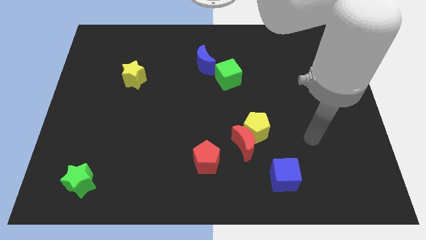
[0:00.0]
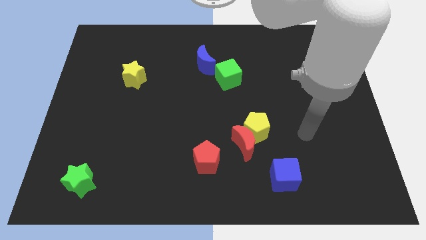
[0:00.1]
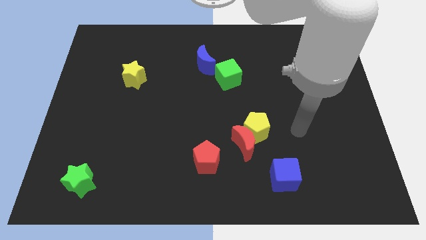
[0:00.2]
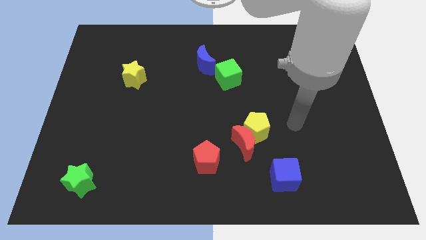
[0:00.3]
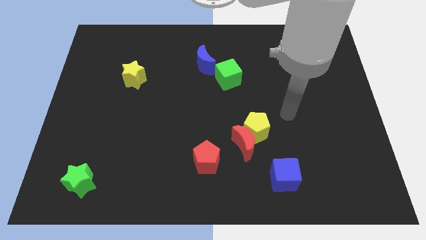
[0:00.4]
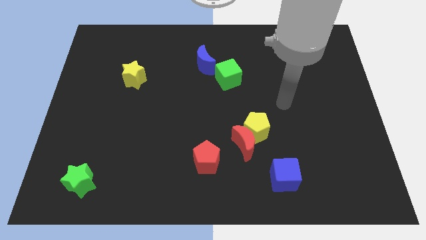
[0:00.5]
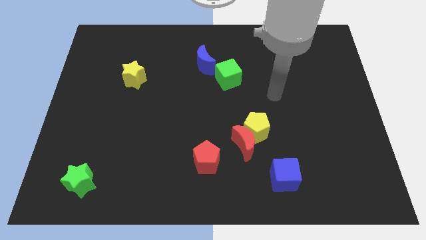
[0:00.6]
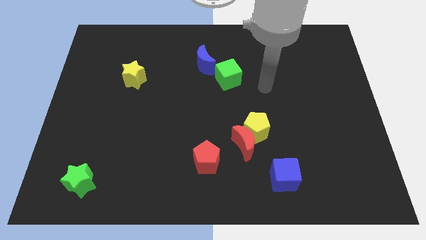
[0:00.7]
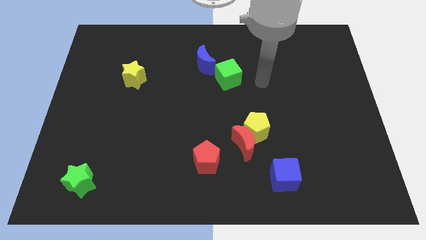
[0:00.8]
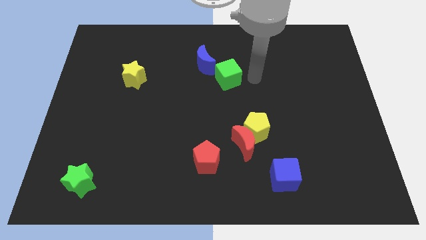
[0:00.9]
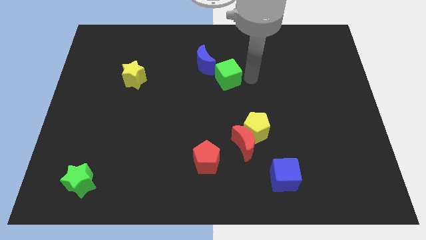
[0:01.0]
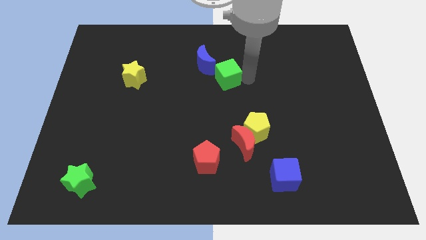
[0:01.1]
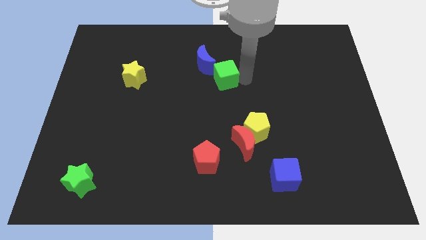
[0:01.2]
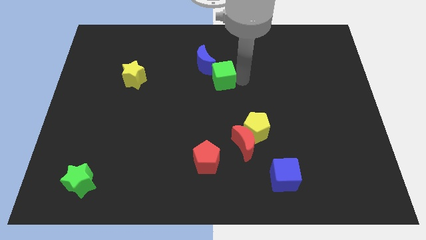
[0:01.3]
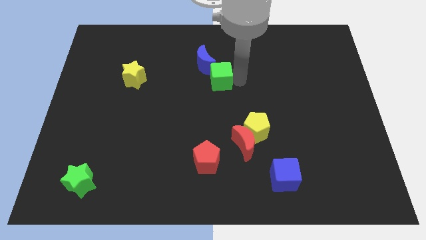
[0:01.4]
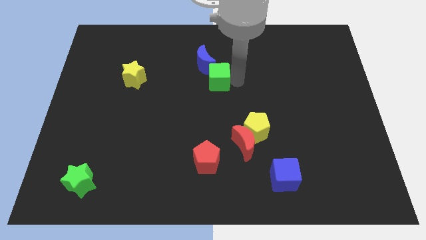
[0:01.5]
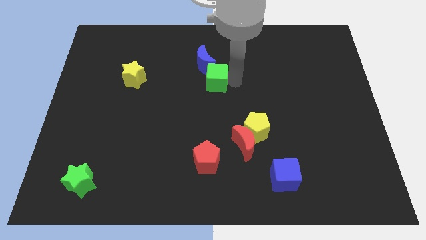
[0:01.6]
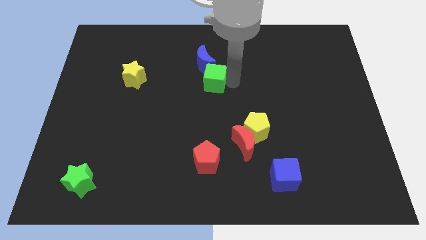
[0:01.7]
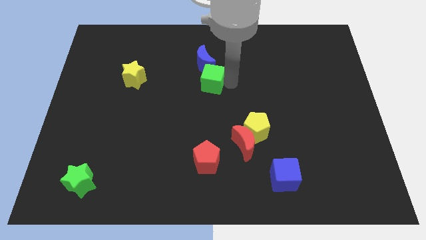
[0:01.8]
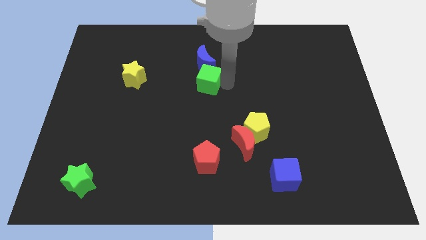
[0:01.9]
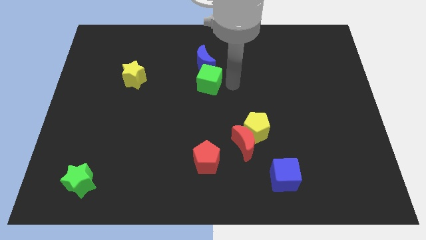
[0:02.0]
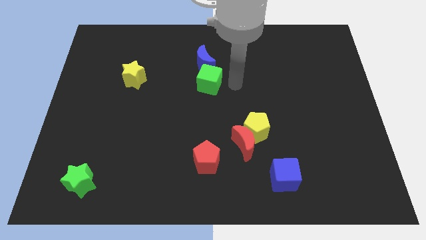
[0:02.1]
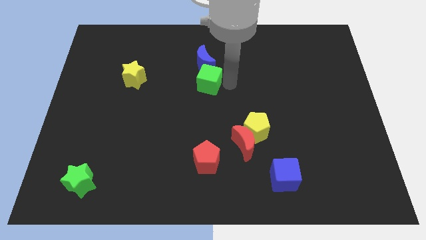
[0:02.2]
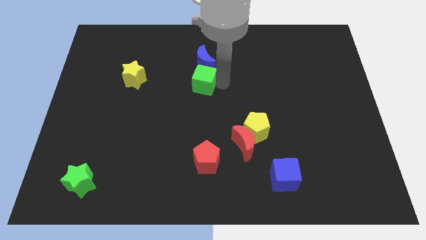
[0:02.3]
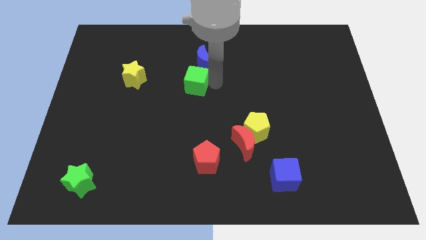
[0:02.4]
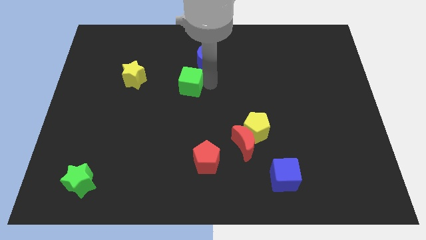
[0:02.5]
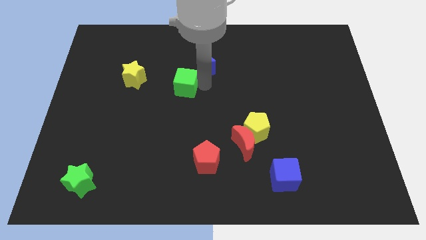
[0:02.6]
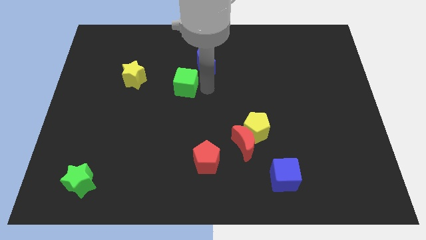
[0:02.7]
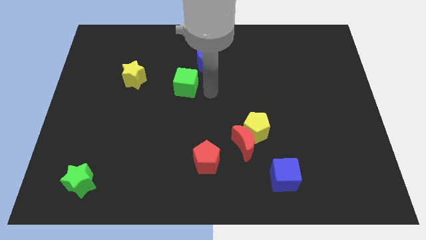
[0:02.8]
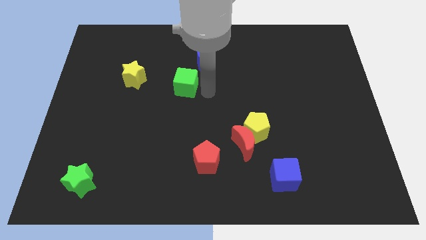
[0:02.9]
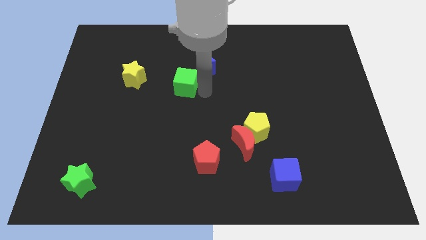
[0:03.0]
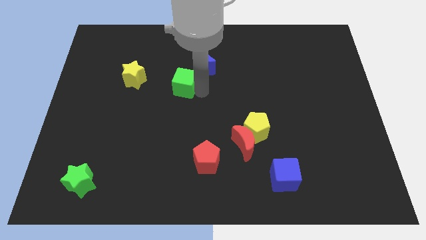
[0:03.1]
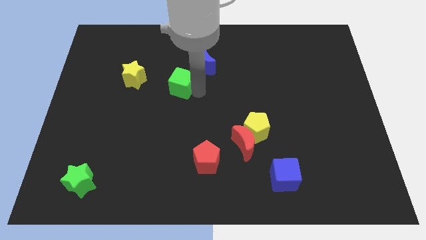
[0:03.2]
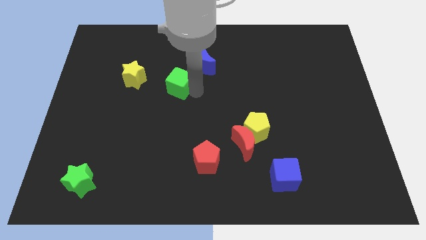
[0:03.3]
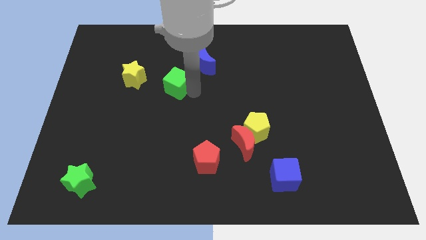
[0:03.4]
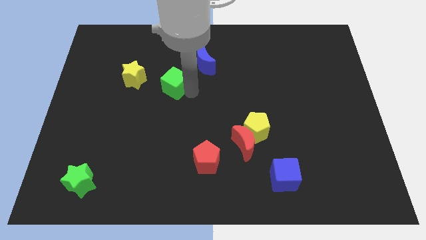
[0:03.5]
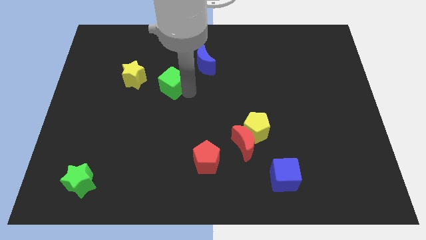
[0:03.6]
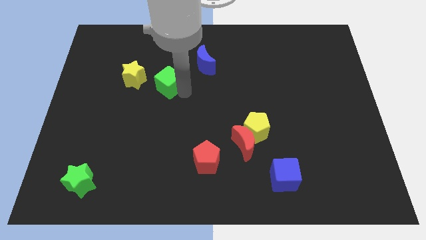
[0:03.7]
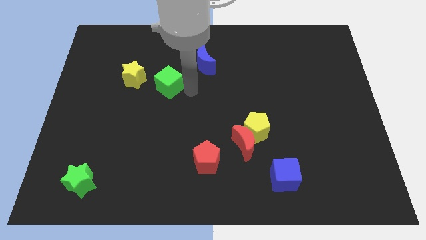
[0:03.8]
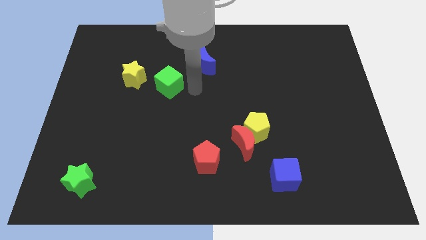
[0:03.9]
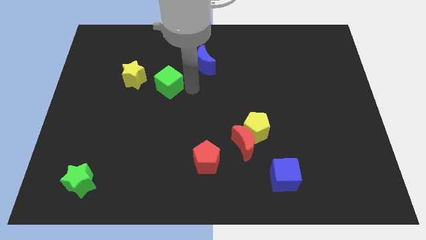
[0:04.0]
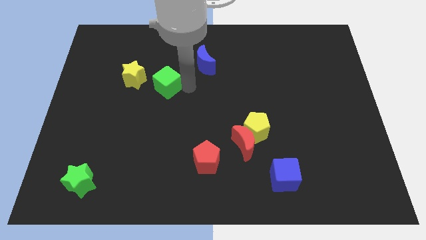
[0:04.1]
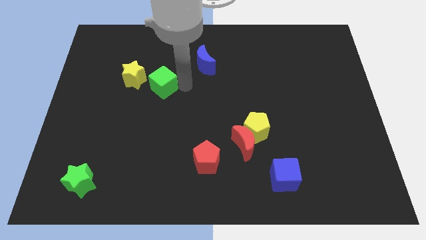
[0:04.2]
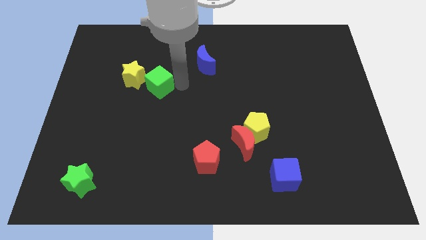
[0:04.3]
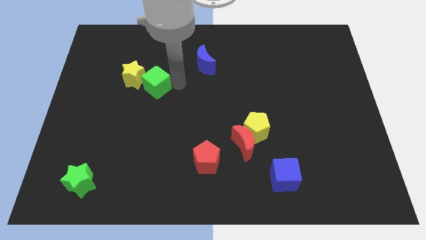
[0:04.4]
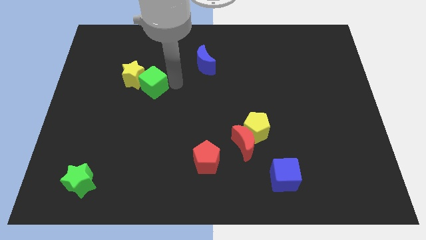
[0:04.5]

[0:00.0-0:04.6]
push the green cube towards the yellow star

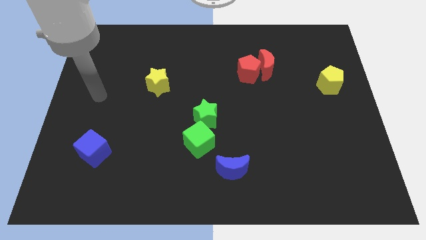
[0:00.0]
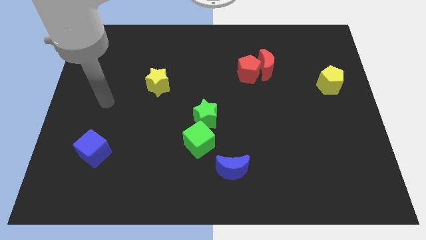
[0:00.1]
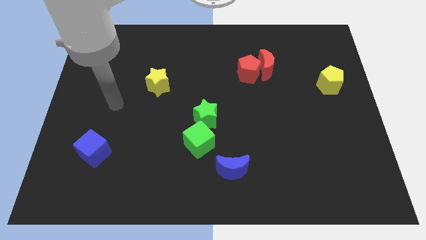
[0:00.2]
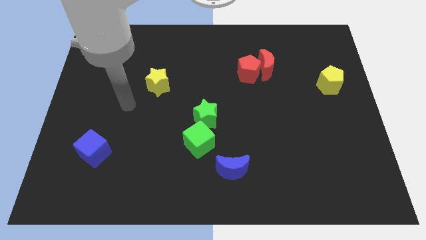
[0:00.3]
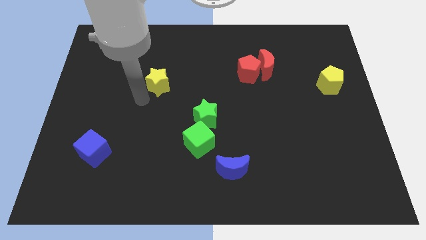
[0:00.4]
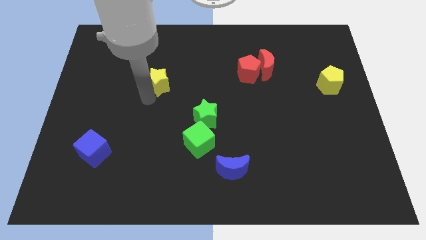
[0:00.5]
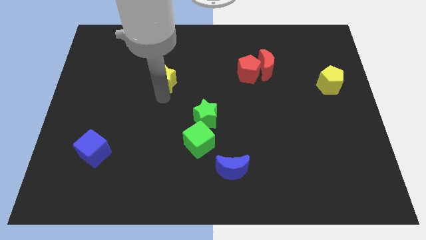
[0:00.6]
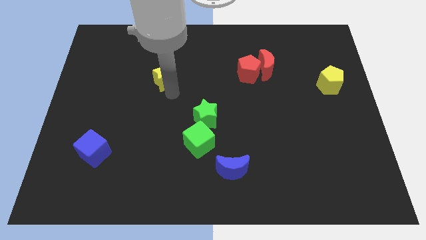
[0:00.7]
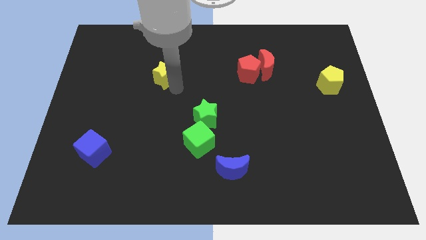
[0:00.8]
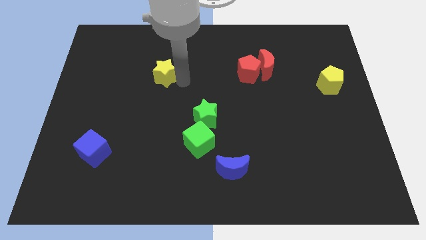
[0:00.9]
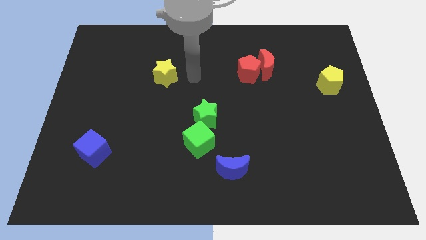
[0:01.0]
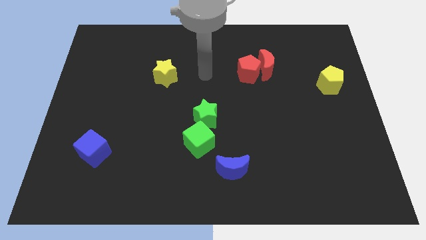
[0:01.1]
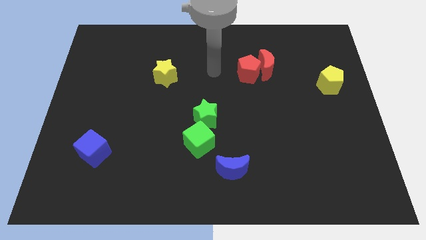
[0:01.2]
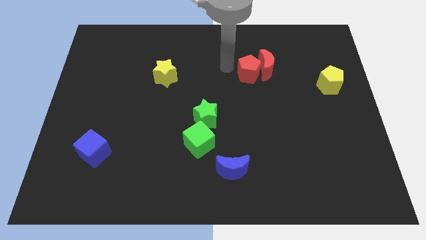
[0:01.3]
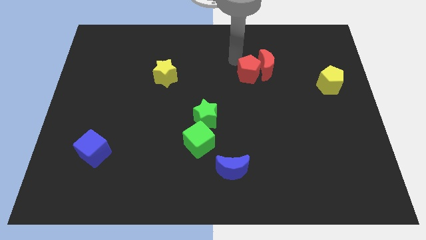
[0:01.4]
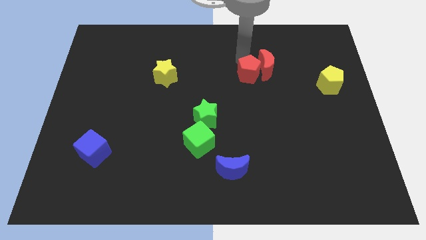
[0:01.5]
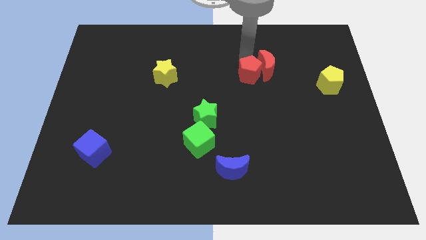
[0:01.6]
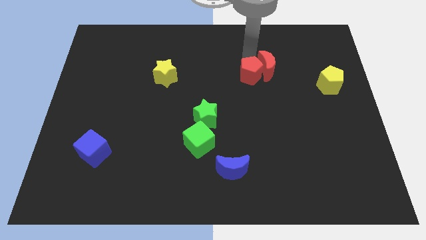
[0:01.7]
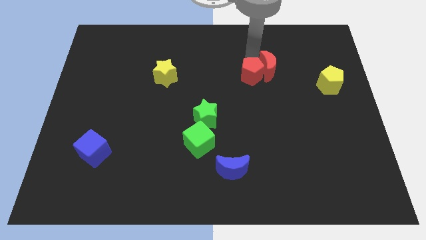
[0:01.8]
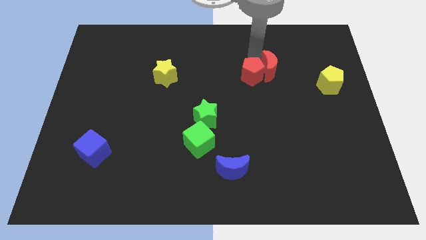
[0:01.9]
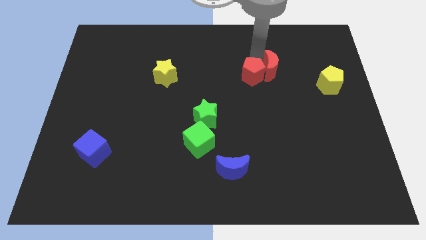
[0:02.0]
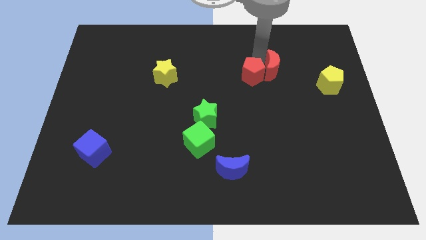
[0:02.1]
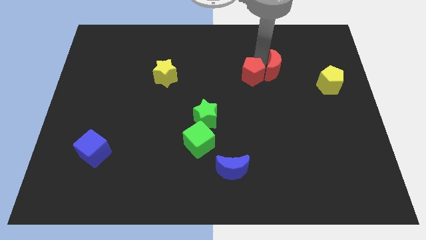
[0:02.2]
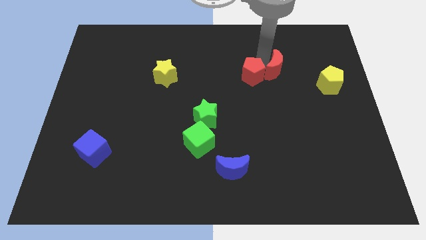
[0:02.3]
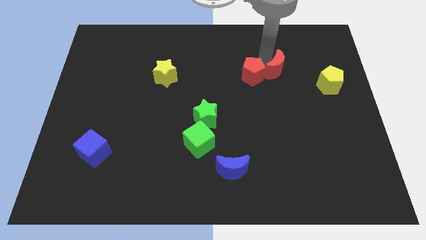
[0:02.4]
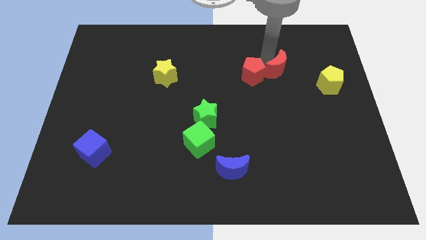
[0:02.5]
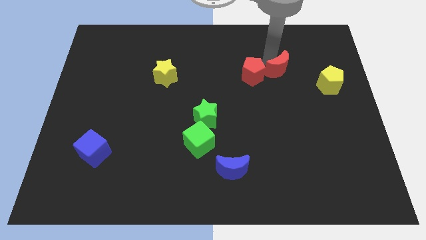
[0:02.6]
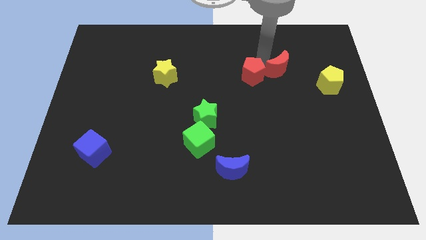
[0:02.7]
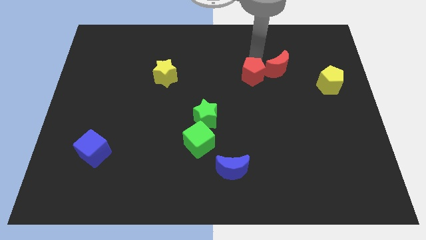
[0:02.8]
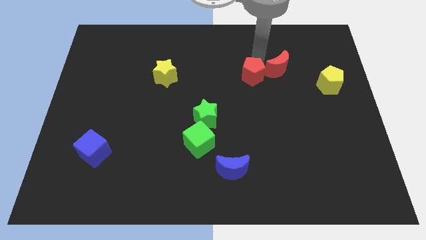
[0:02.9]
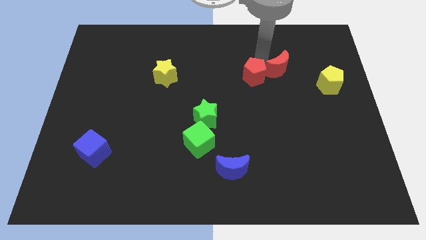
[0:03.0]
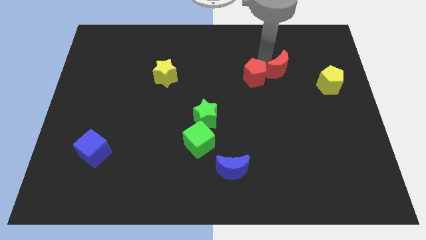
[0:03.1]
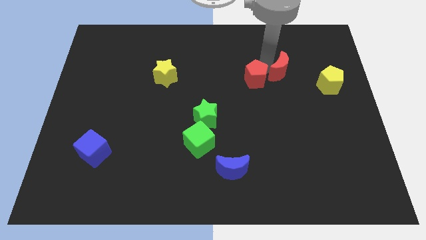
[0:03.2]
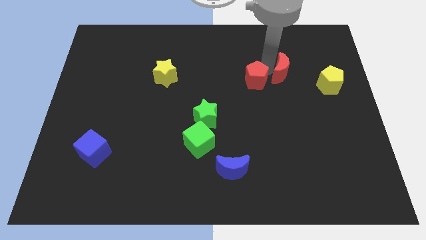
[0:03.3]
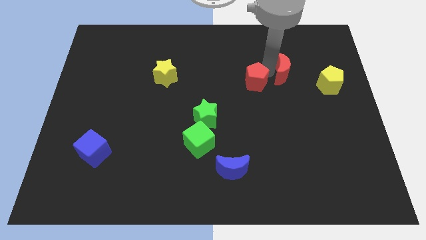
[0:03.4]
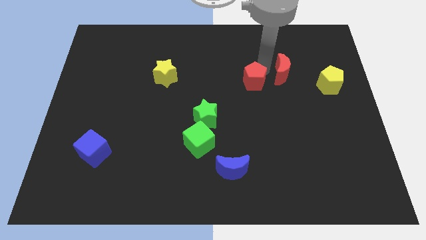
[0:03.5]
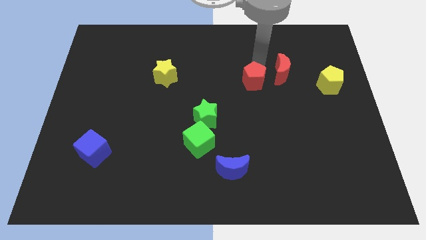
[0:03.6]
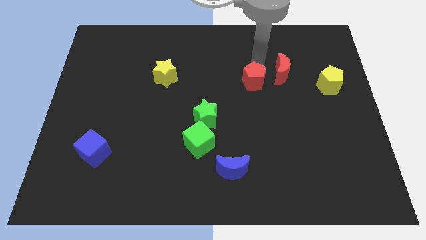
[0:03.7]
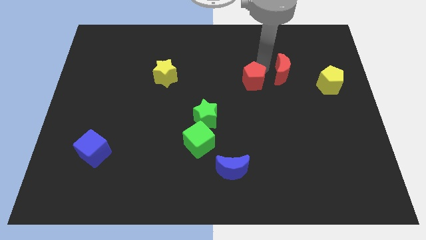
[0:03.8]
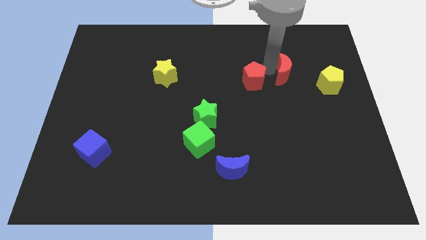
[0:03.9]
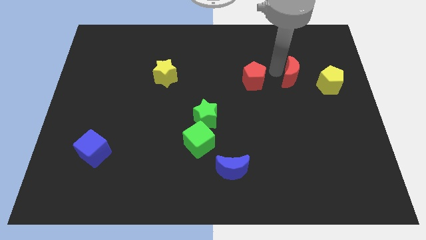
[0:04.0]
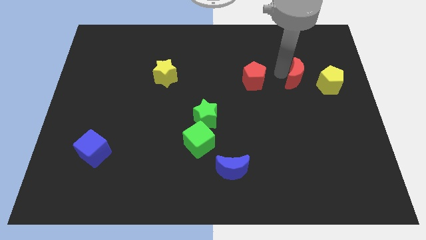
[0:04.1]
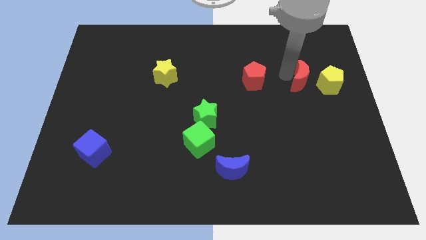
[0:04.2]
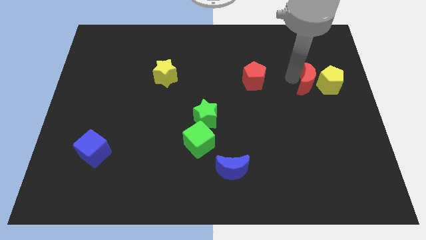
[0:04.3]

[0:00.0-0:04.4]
slide the red moon towards the yellow pentagon
